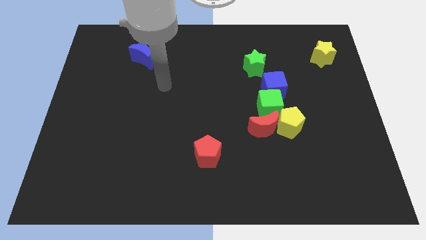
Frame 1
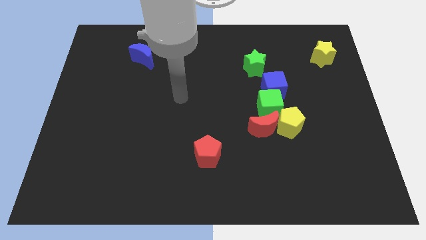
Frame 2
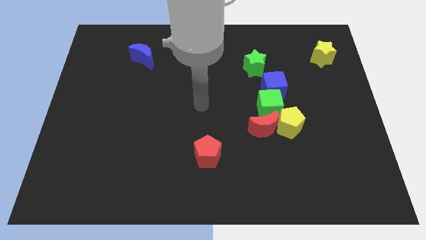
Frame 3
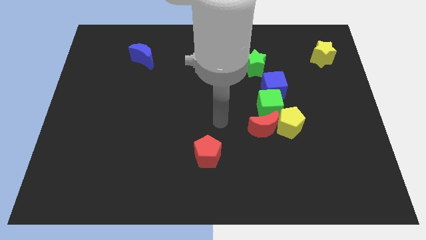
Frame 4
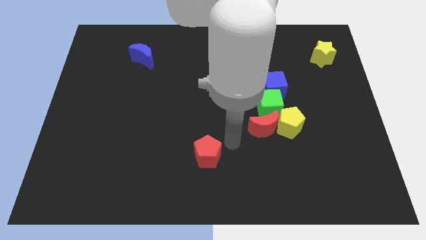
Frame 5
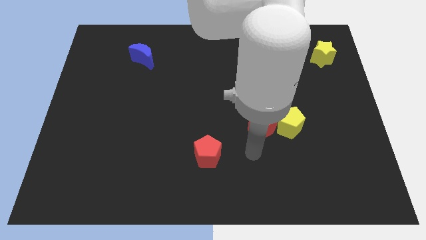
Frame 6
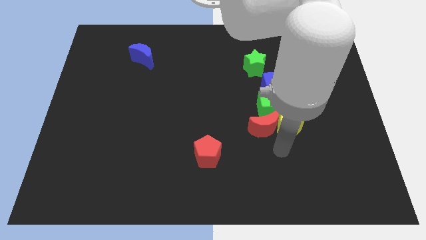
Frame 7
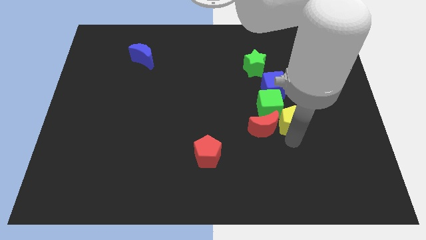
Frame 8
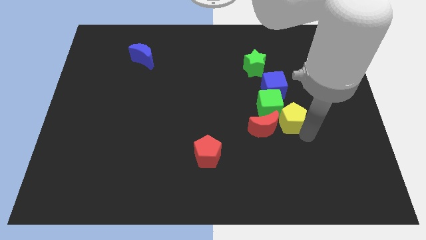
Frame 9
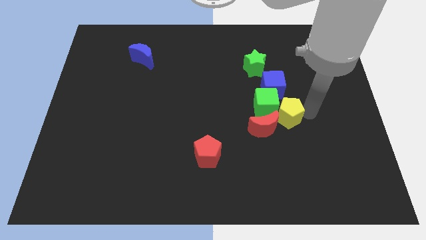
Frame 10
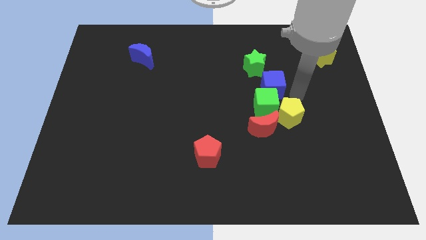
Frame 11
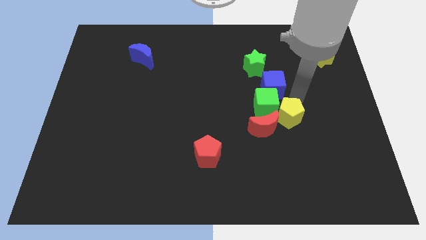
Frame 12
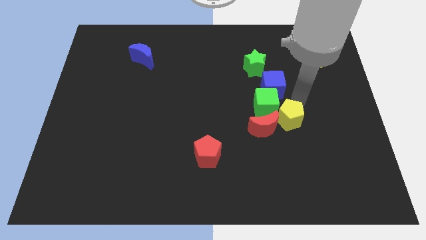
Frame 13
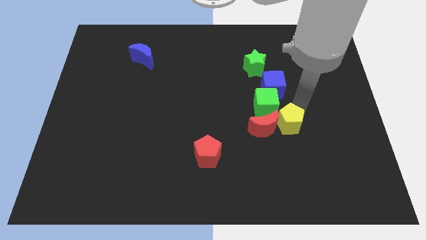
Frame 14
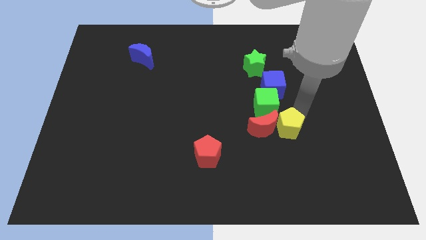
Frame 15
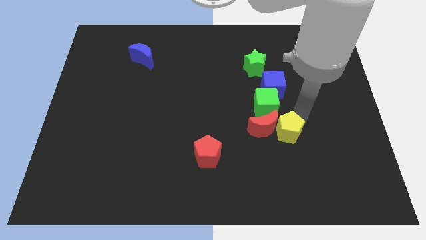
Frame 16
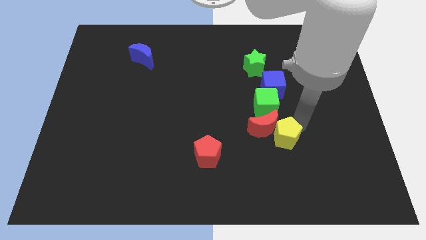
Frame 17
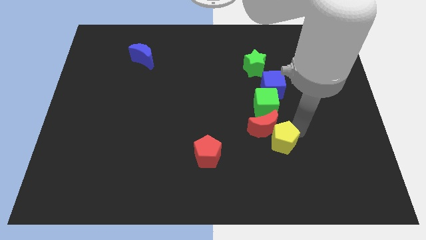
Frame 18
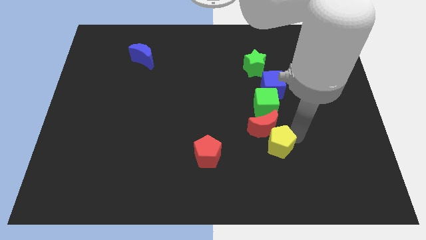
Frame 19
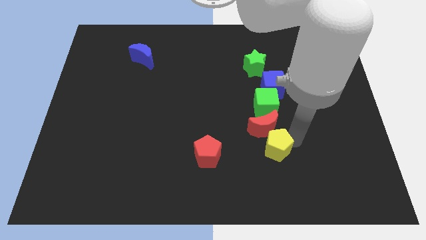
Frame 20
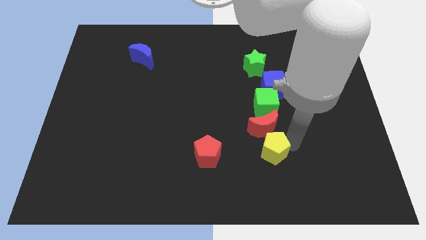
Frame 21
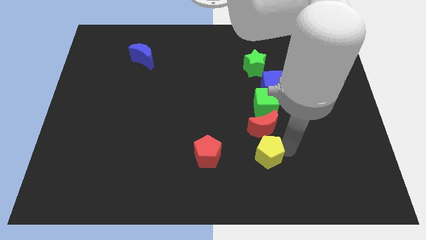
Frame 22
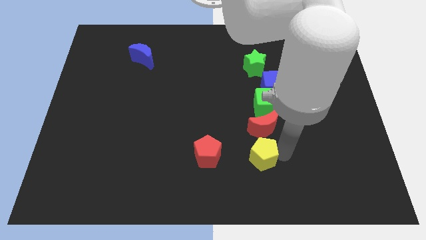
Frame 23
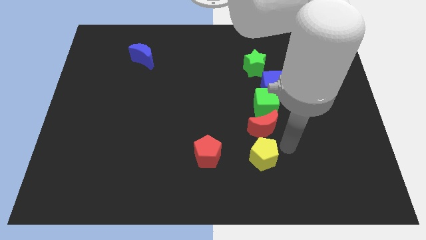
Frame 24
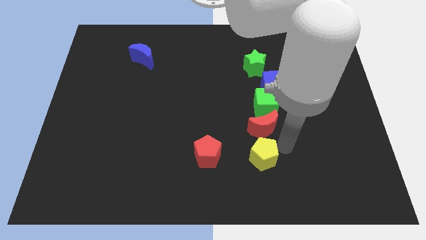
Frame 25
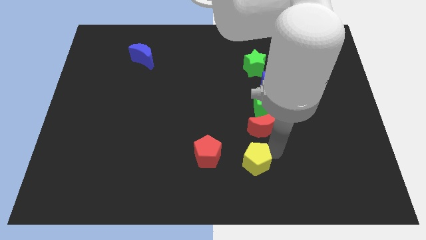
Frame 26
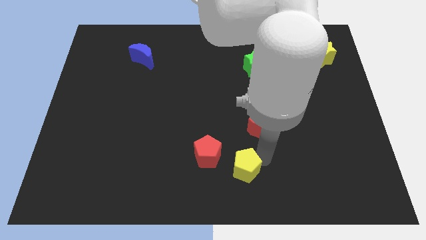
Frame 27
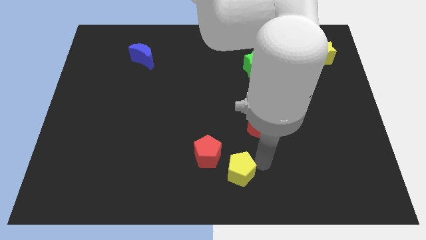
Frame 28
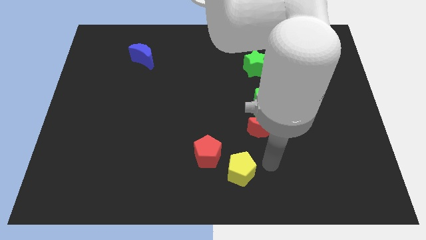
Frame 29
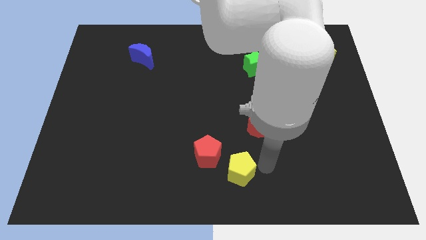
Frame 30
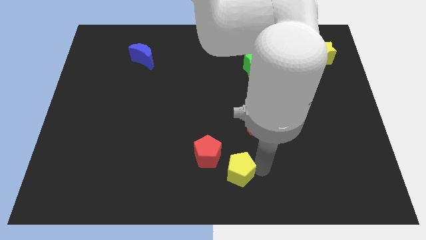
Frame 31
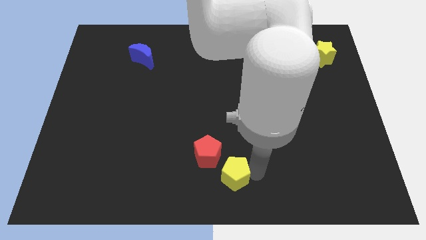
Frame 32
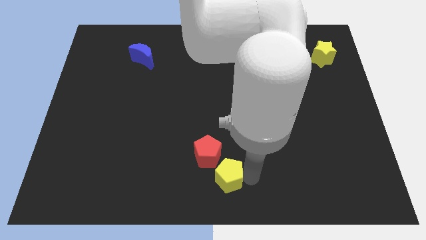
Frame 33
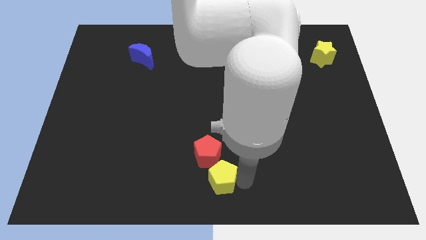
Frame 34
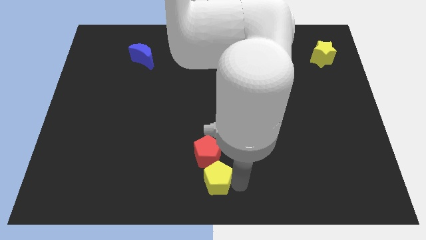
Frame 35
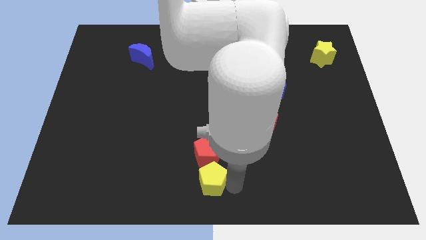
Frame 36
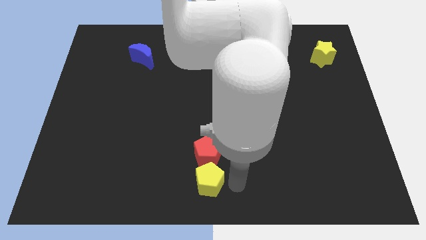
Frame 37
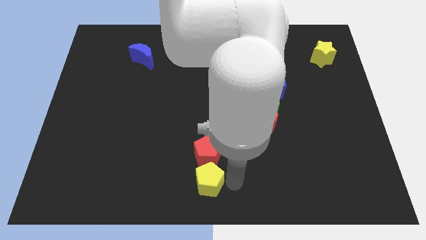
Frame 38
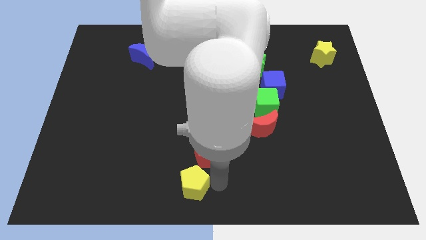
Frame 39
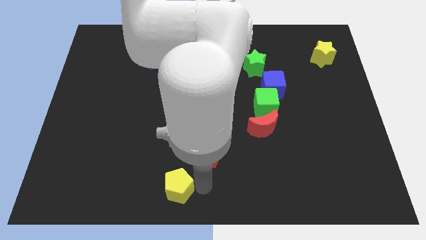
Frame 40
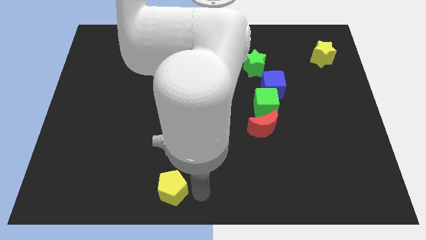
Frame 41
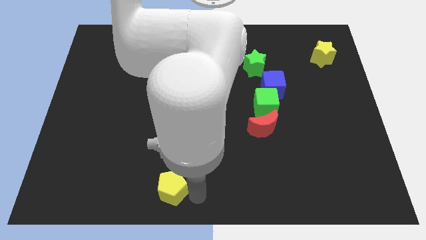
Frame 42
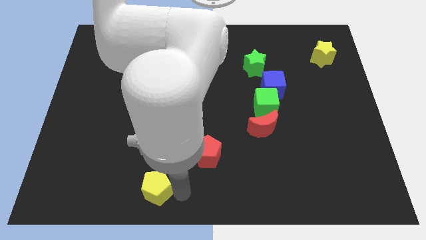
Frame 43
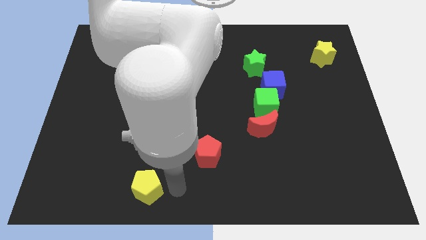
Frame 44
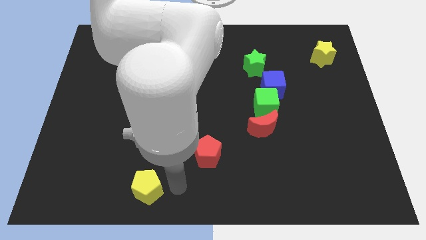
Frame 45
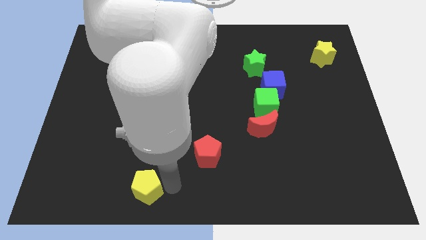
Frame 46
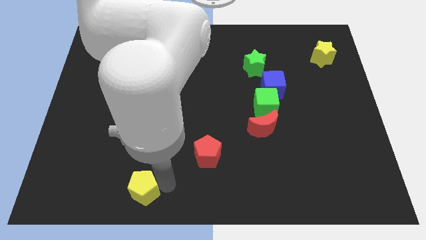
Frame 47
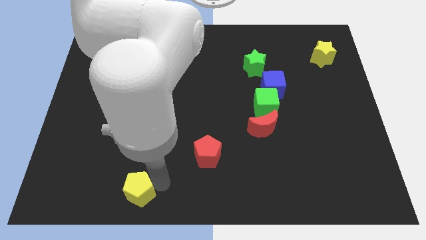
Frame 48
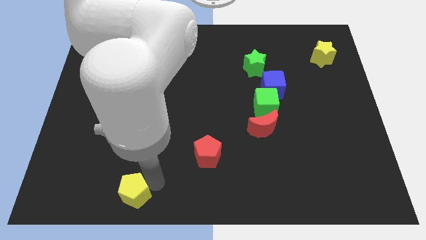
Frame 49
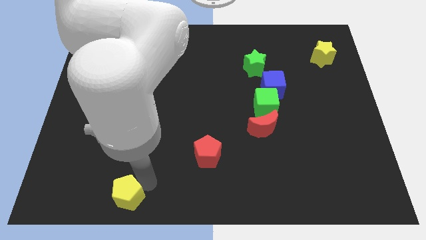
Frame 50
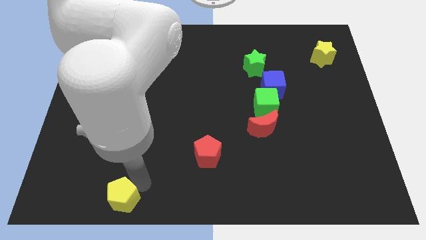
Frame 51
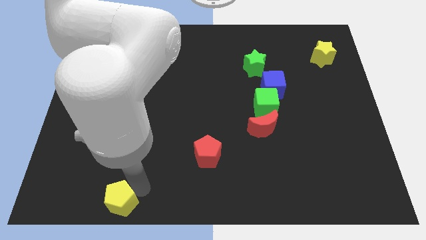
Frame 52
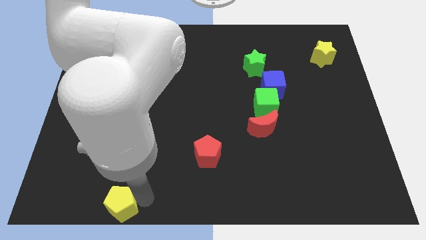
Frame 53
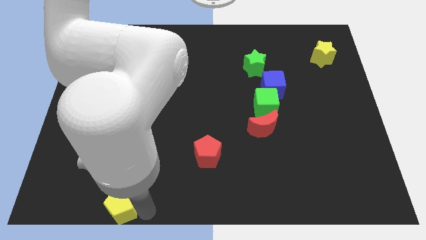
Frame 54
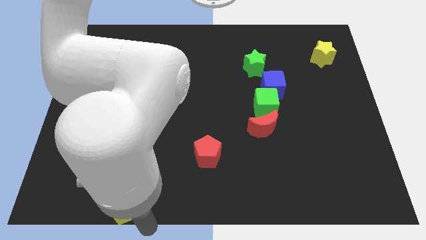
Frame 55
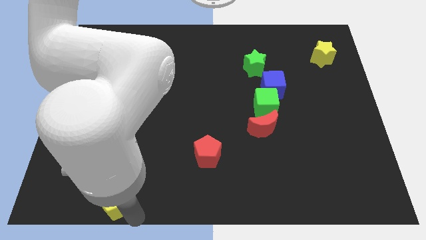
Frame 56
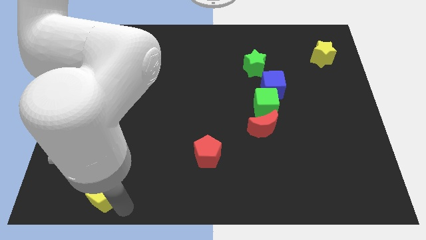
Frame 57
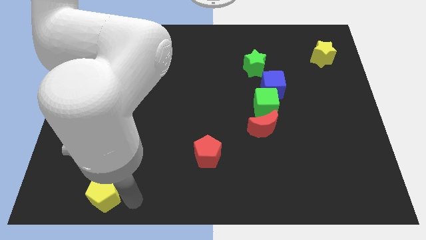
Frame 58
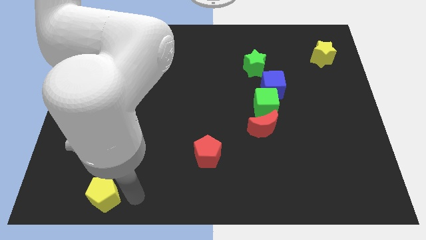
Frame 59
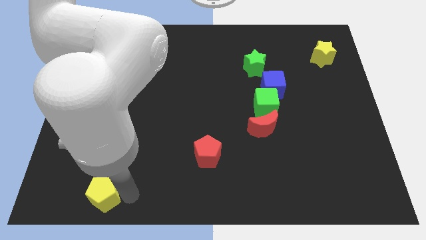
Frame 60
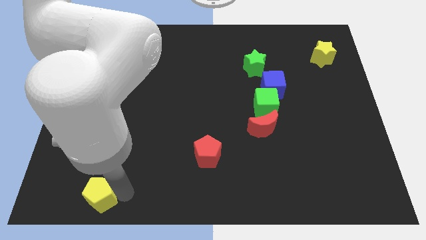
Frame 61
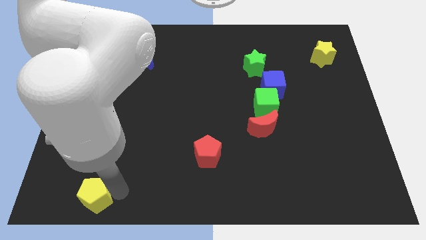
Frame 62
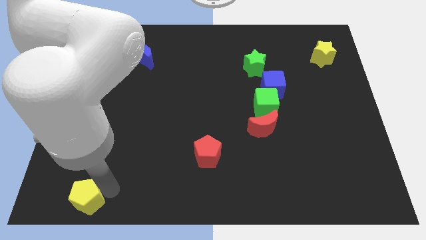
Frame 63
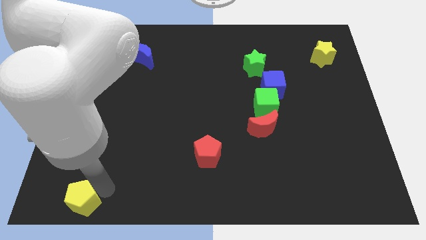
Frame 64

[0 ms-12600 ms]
move the yellow pentagon to the bottom left corner

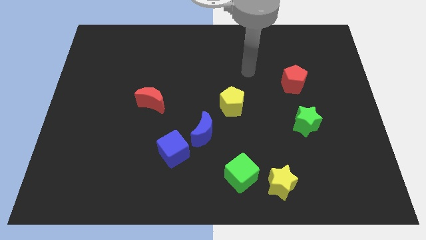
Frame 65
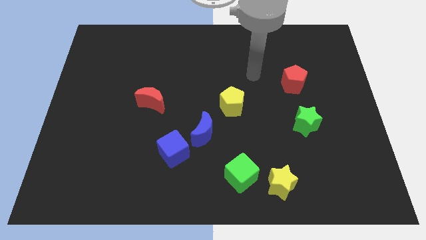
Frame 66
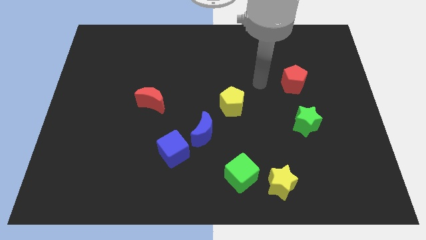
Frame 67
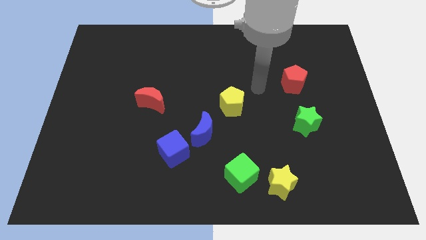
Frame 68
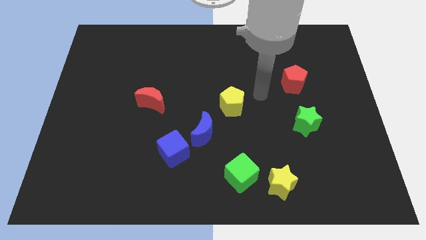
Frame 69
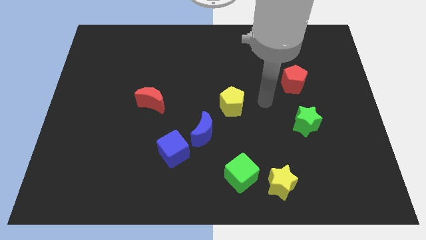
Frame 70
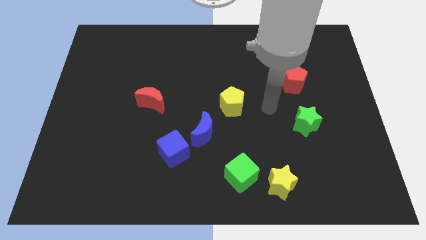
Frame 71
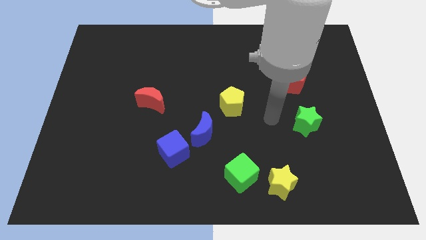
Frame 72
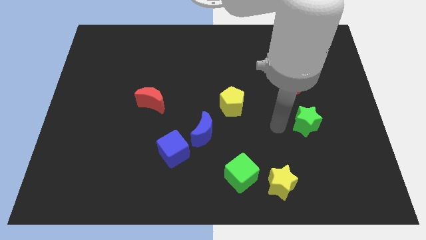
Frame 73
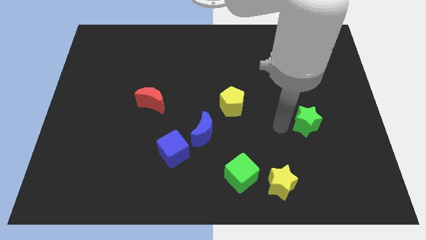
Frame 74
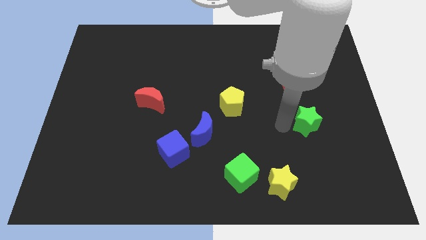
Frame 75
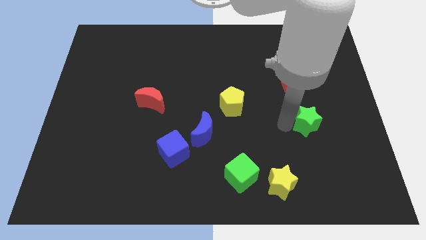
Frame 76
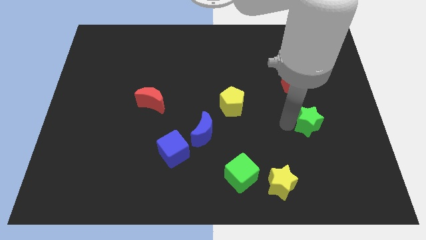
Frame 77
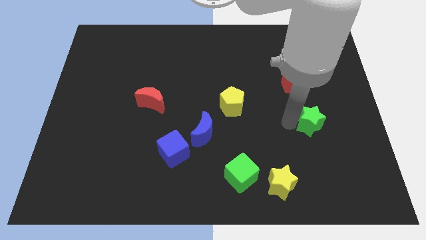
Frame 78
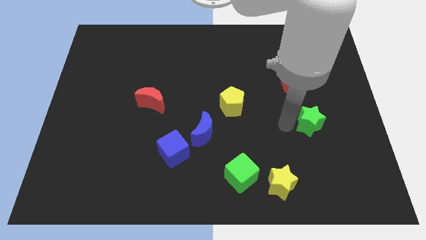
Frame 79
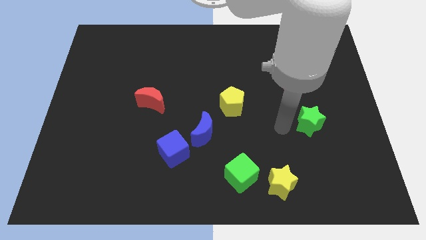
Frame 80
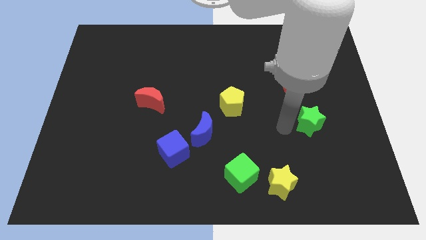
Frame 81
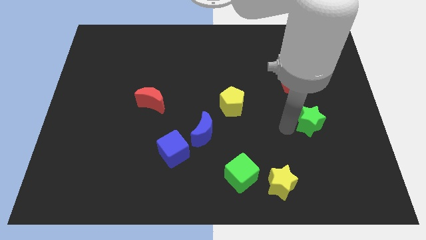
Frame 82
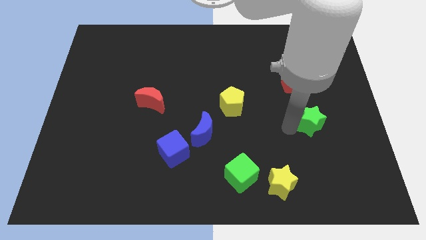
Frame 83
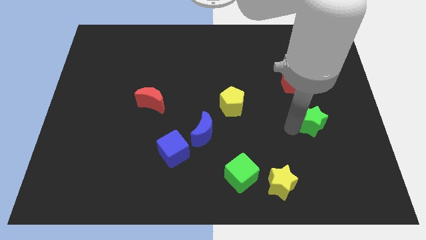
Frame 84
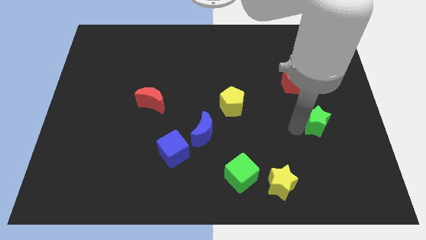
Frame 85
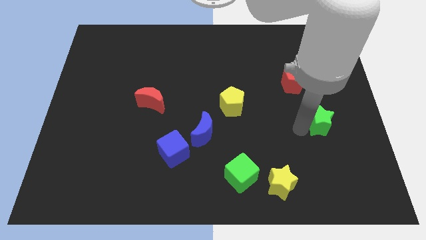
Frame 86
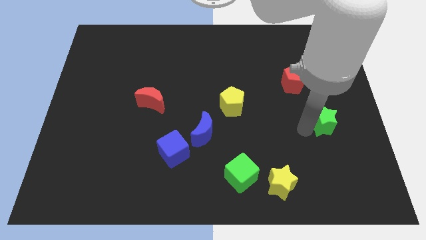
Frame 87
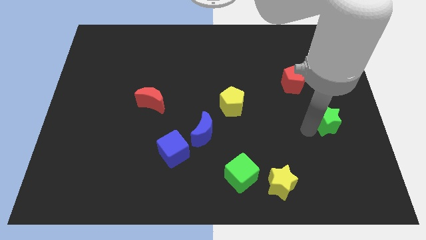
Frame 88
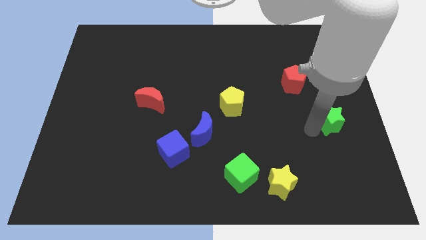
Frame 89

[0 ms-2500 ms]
push the green star to the center right
